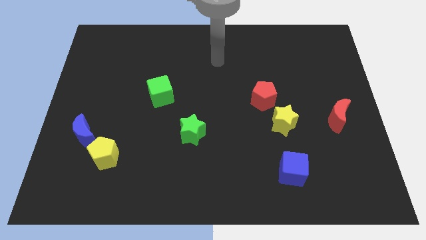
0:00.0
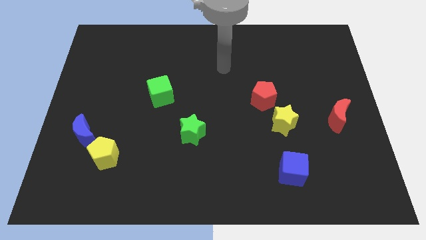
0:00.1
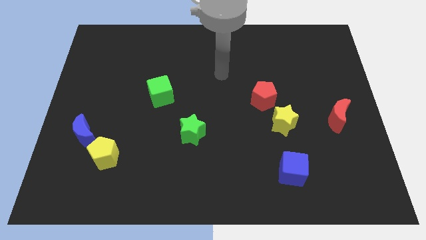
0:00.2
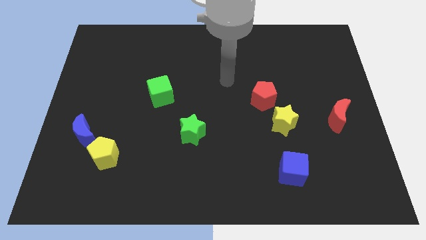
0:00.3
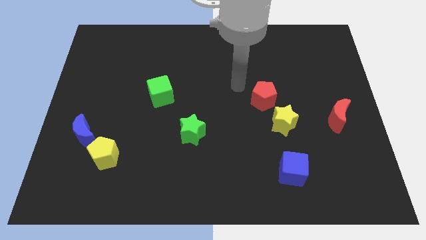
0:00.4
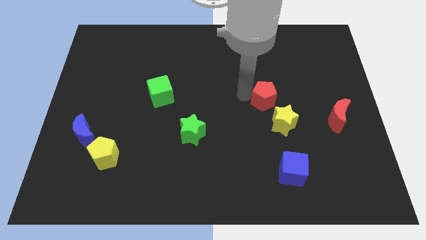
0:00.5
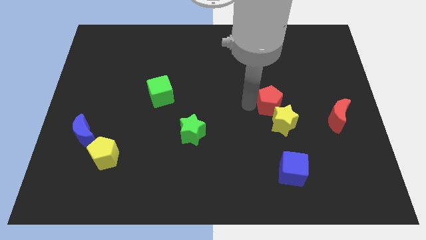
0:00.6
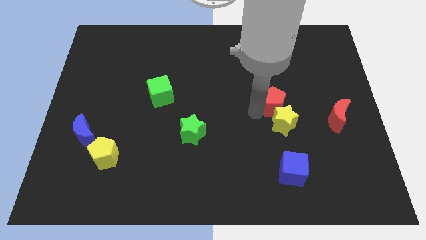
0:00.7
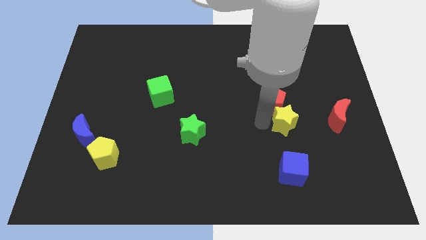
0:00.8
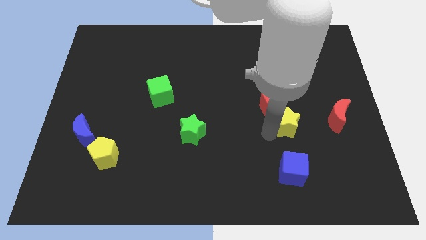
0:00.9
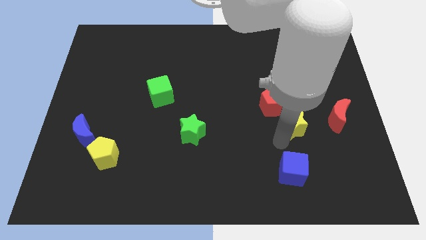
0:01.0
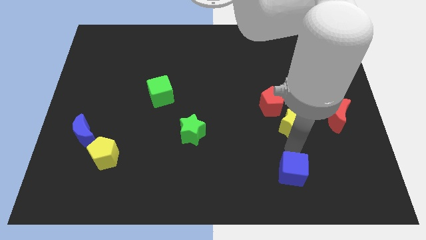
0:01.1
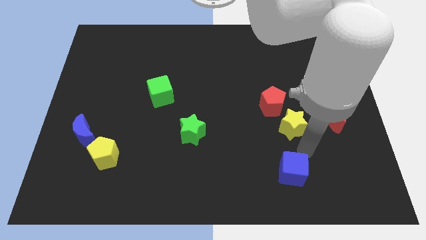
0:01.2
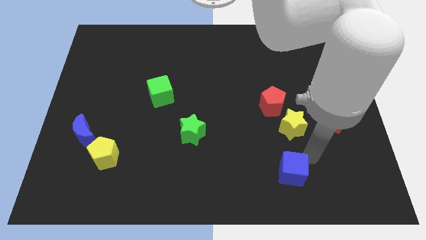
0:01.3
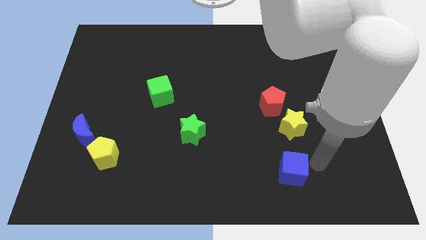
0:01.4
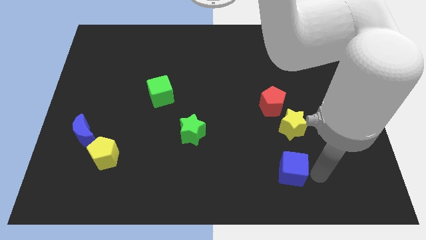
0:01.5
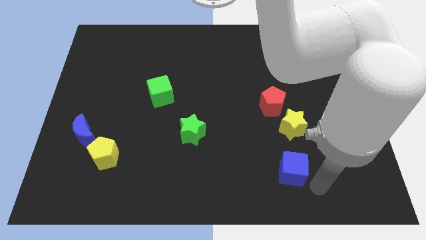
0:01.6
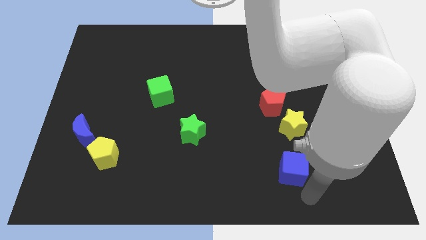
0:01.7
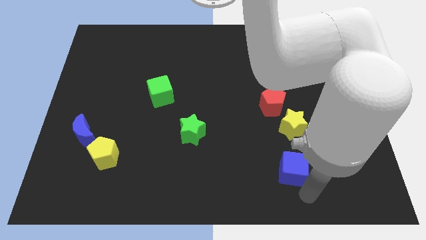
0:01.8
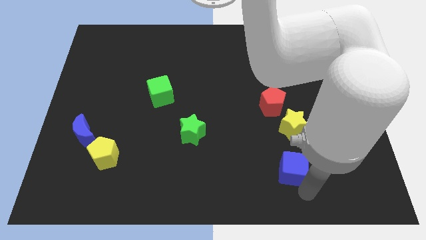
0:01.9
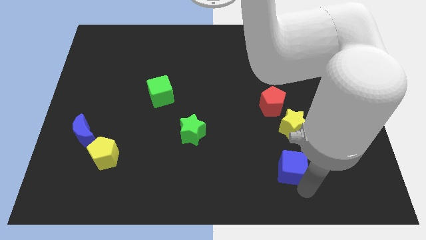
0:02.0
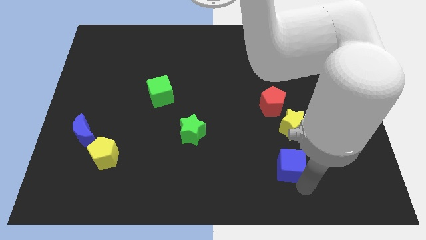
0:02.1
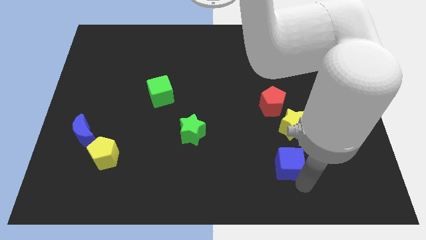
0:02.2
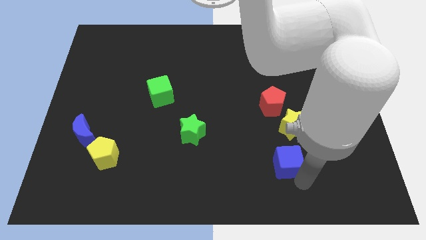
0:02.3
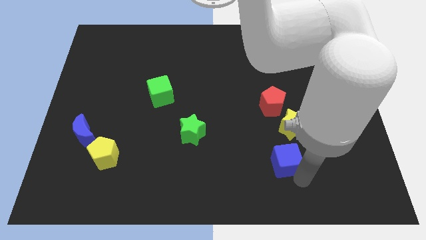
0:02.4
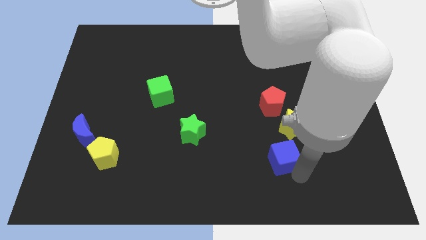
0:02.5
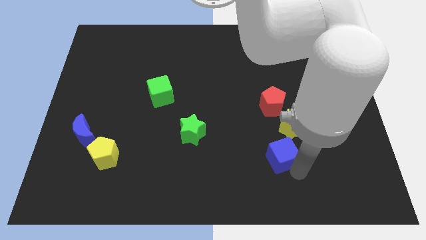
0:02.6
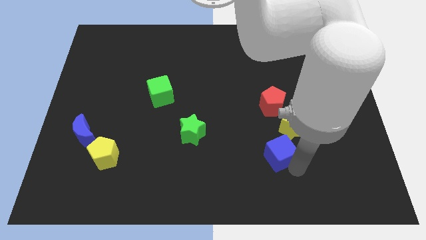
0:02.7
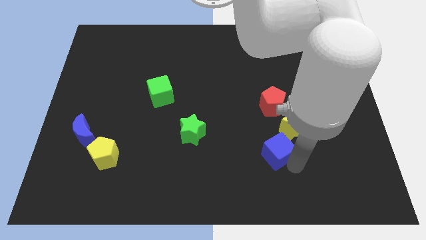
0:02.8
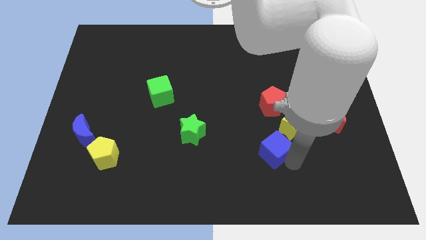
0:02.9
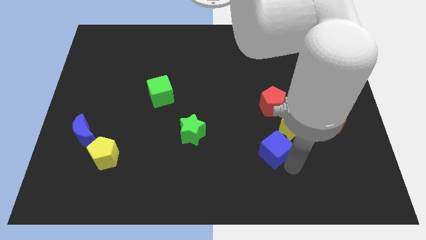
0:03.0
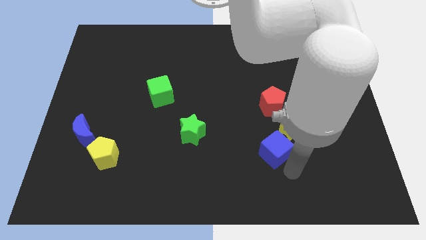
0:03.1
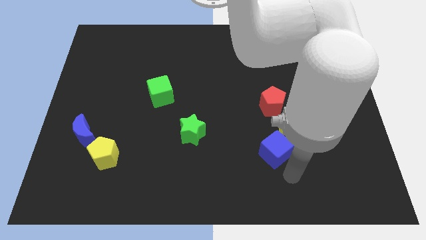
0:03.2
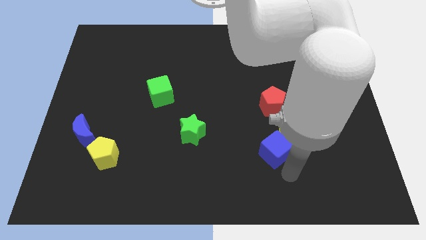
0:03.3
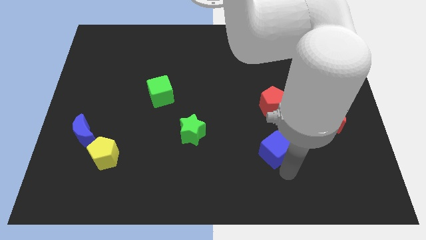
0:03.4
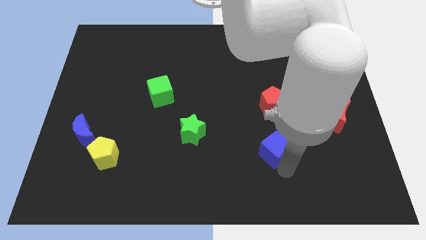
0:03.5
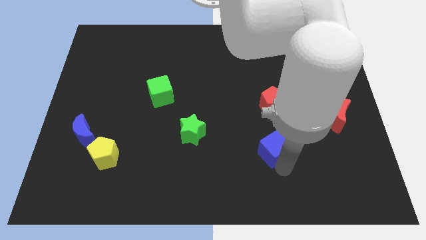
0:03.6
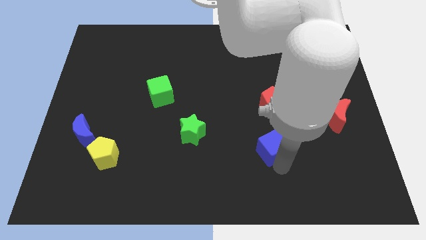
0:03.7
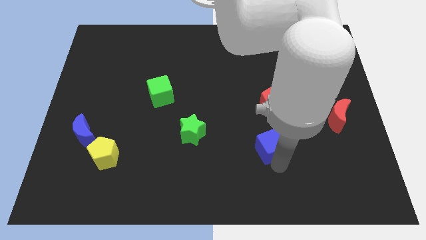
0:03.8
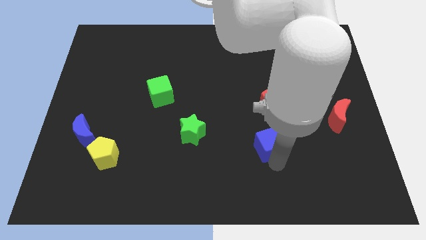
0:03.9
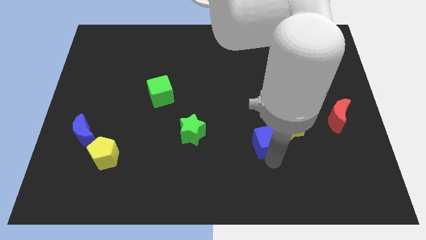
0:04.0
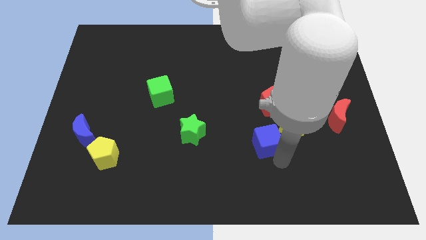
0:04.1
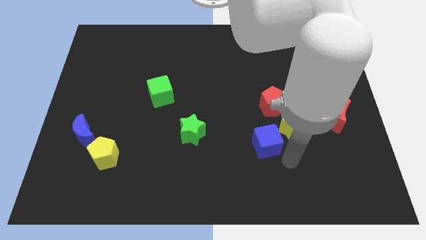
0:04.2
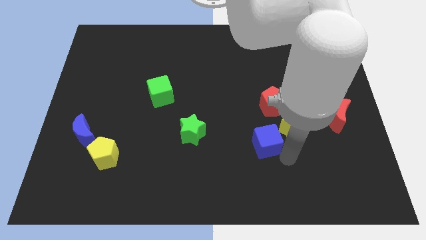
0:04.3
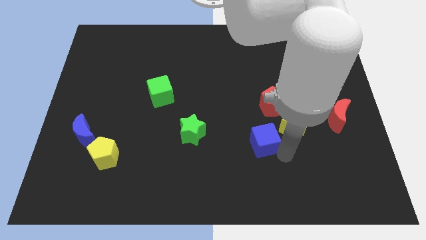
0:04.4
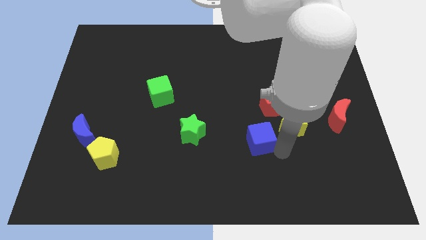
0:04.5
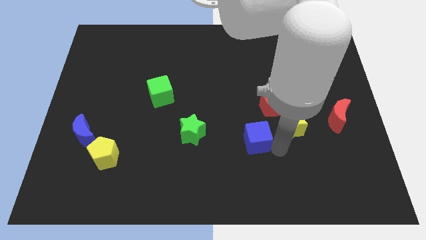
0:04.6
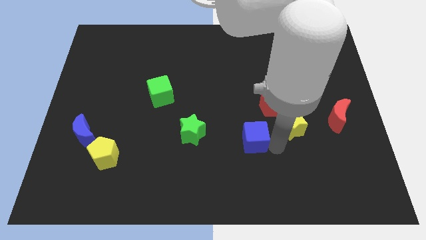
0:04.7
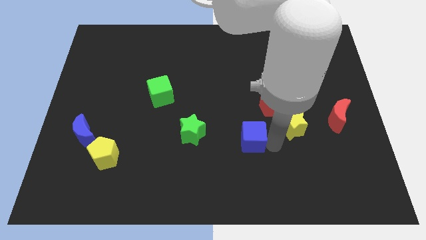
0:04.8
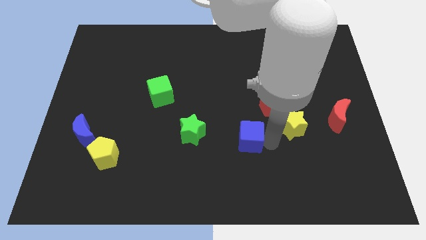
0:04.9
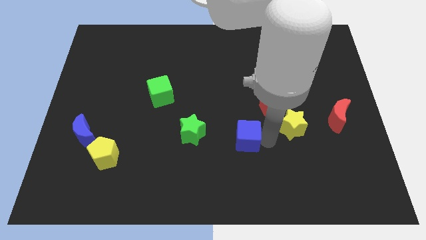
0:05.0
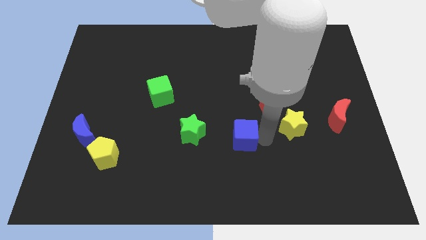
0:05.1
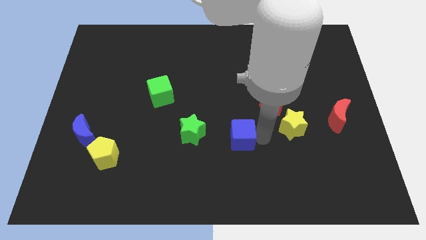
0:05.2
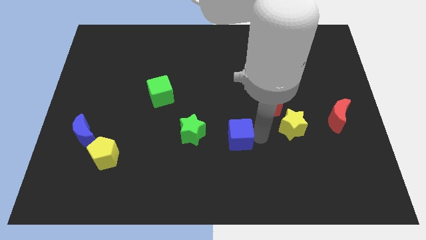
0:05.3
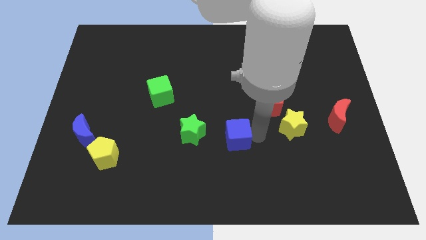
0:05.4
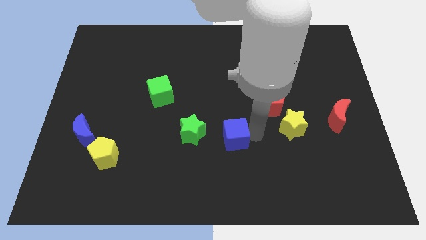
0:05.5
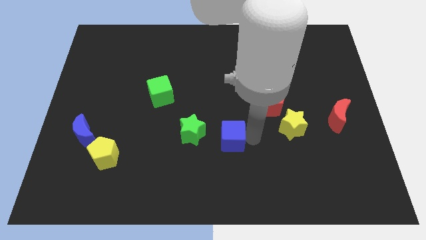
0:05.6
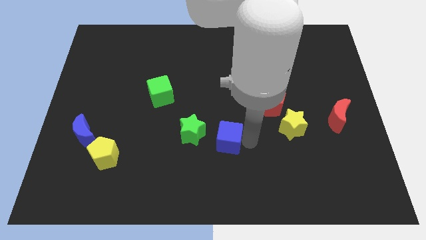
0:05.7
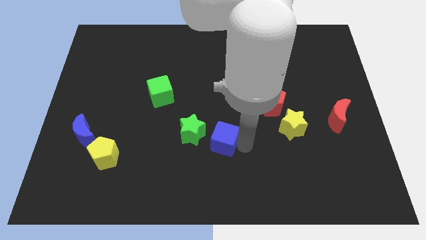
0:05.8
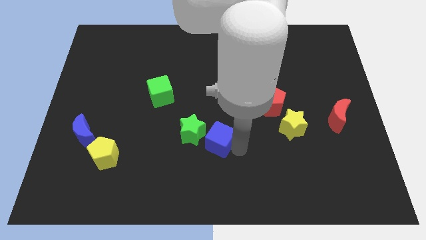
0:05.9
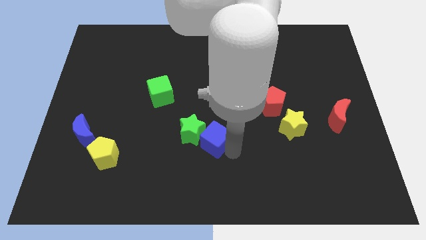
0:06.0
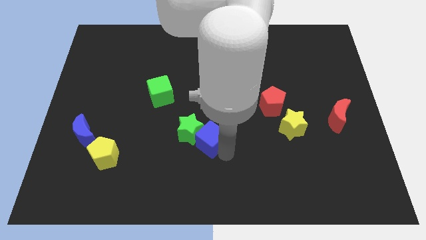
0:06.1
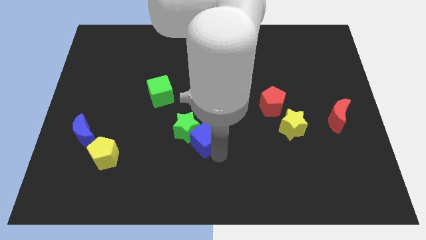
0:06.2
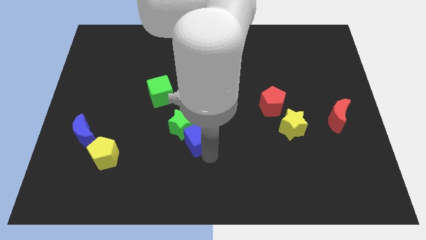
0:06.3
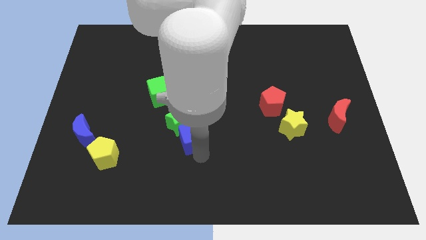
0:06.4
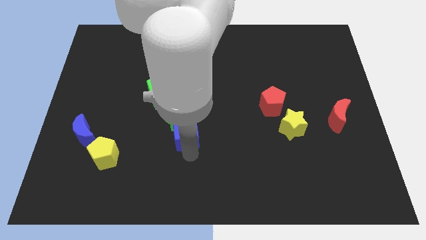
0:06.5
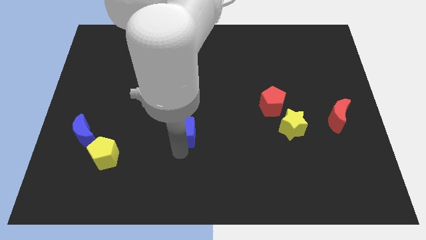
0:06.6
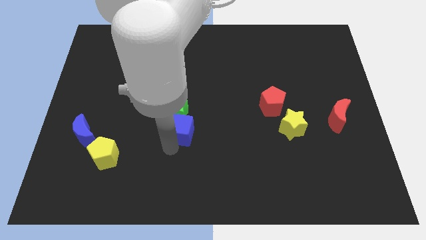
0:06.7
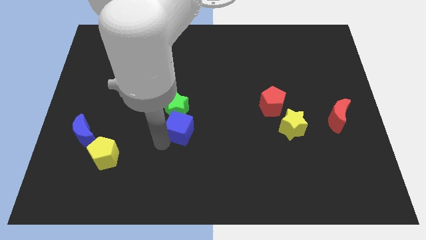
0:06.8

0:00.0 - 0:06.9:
move the blue cube upwards and to the left diagonally

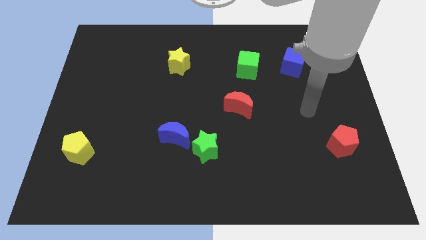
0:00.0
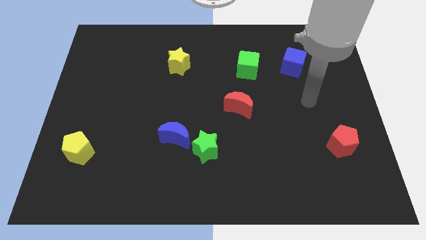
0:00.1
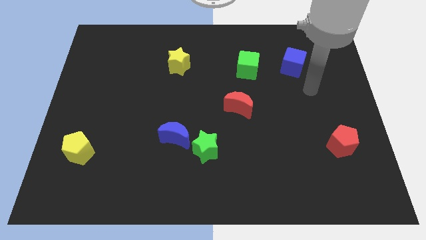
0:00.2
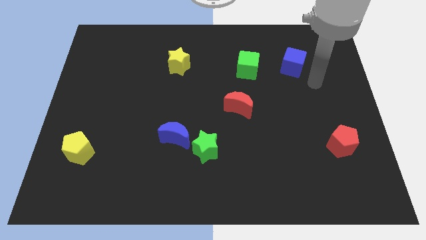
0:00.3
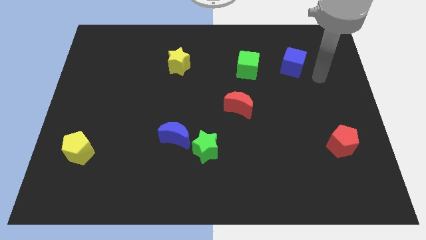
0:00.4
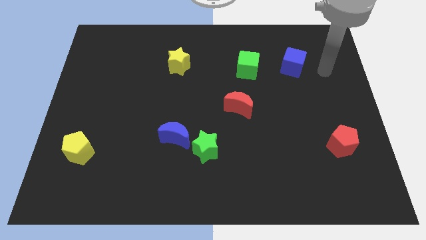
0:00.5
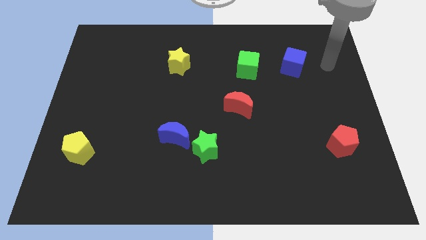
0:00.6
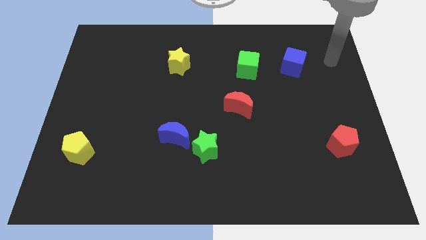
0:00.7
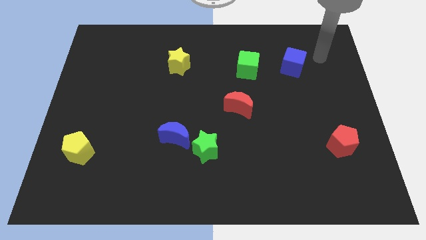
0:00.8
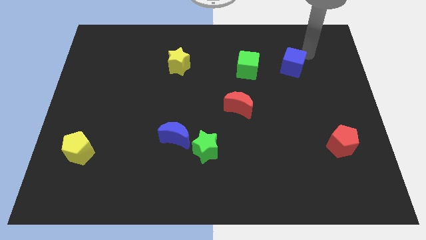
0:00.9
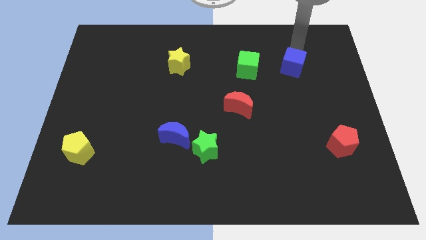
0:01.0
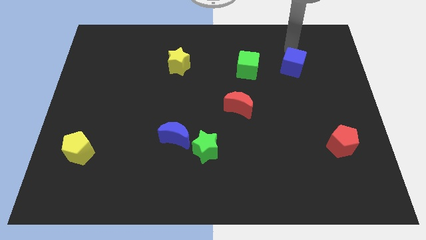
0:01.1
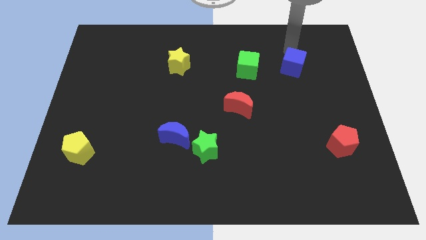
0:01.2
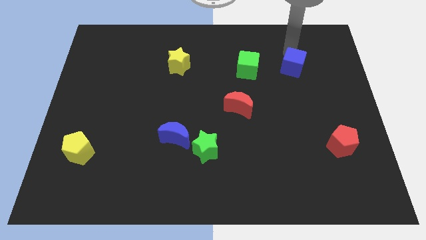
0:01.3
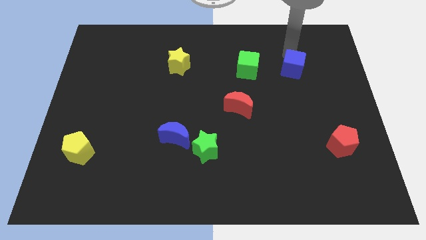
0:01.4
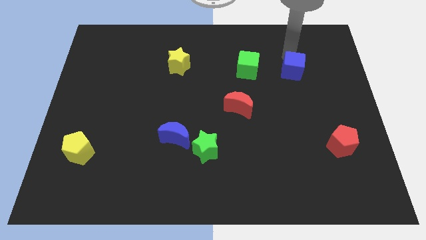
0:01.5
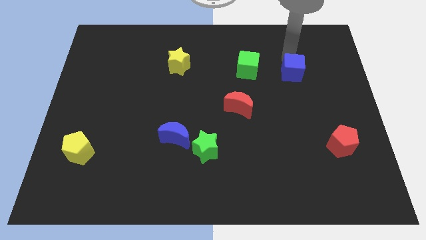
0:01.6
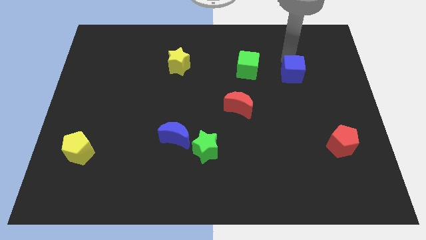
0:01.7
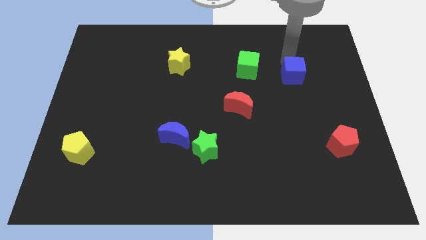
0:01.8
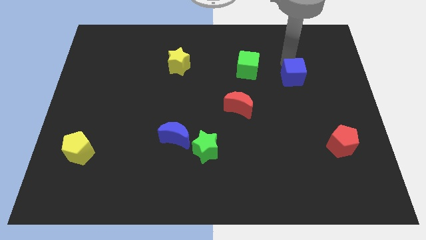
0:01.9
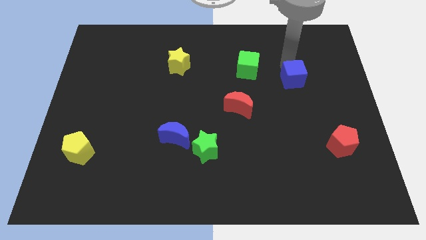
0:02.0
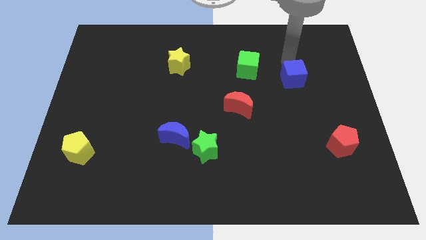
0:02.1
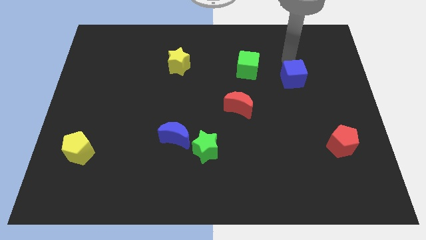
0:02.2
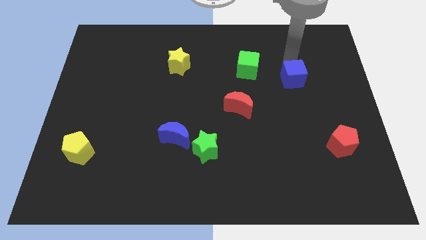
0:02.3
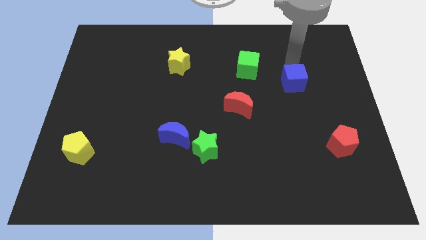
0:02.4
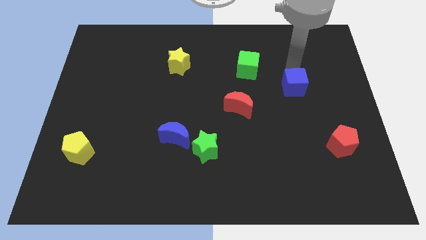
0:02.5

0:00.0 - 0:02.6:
slightly push the blue cube downwards
